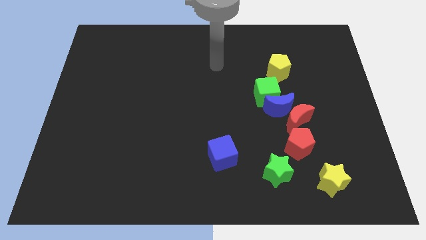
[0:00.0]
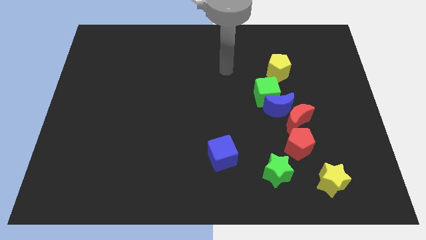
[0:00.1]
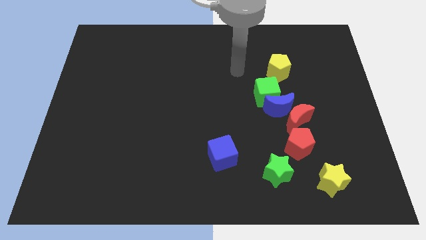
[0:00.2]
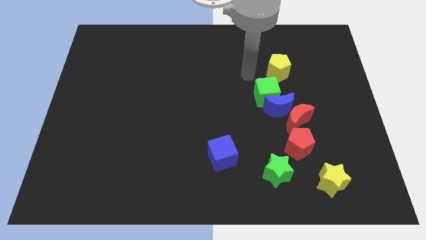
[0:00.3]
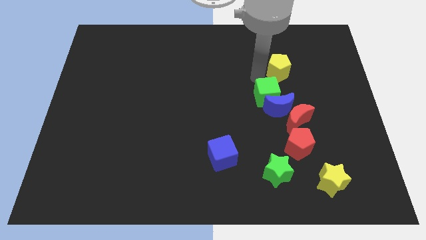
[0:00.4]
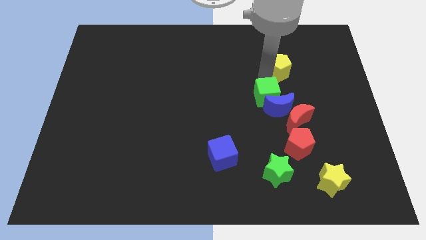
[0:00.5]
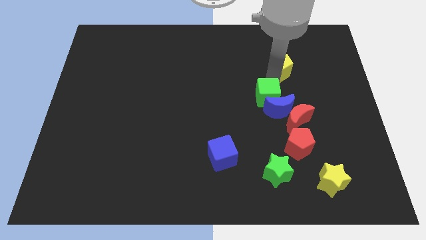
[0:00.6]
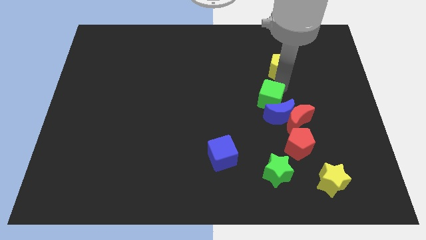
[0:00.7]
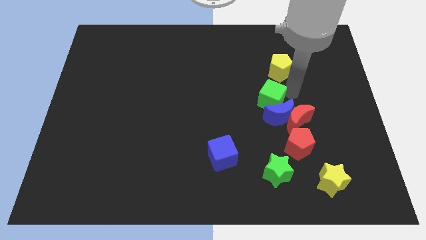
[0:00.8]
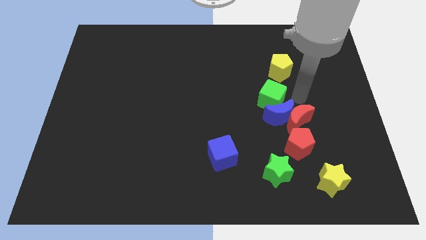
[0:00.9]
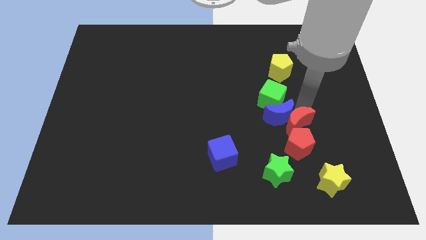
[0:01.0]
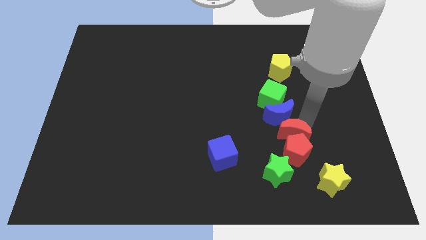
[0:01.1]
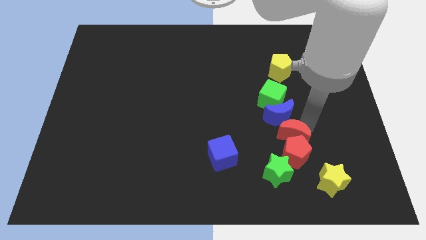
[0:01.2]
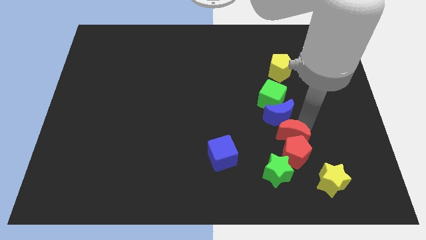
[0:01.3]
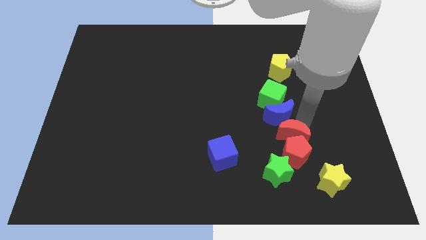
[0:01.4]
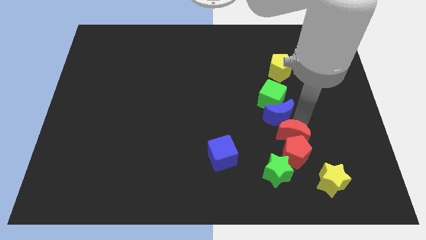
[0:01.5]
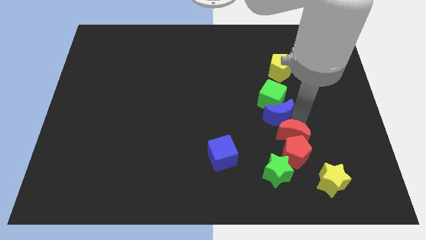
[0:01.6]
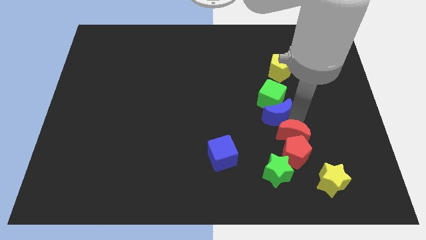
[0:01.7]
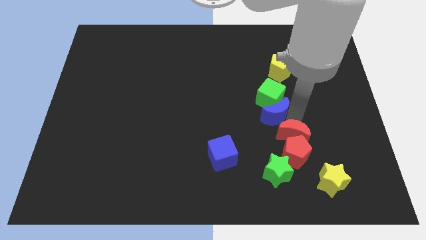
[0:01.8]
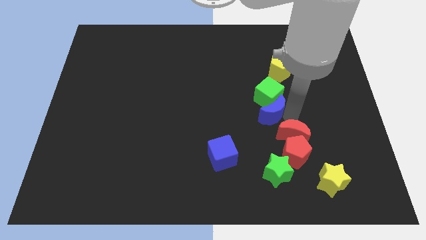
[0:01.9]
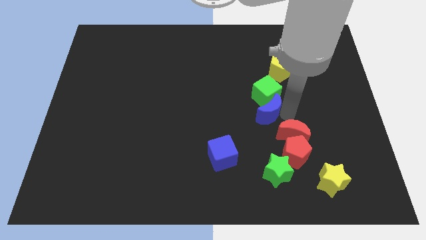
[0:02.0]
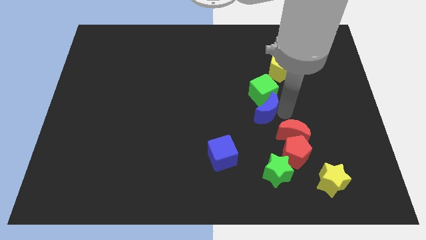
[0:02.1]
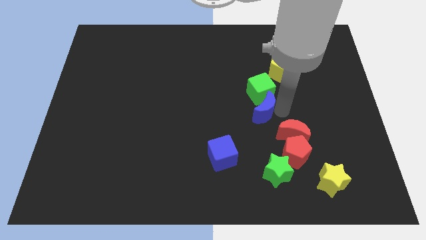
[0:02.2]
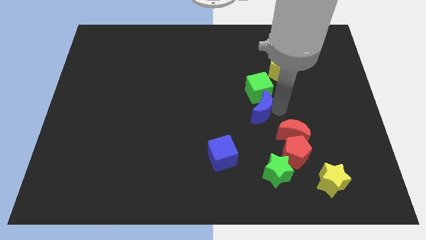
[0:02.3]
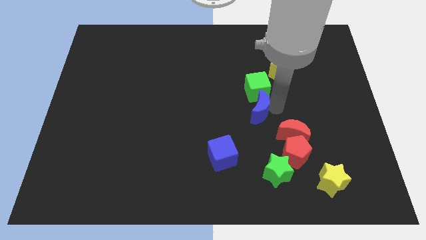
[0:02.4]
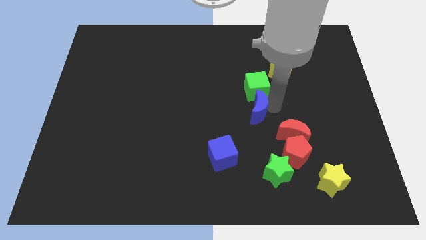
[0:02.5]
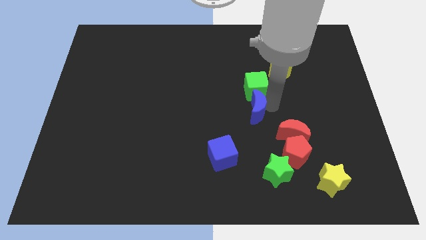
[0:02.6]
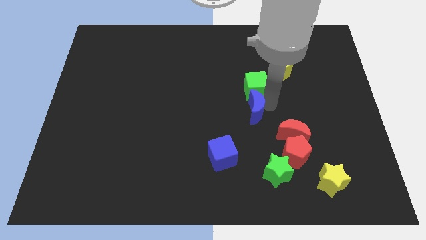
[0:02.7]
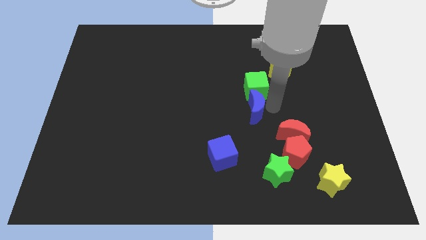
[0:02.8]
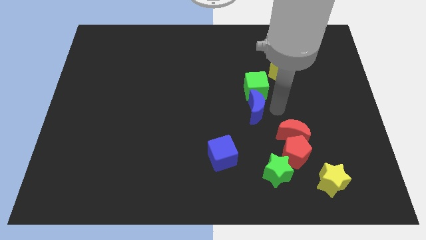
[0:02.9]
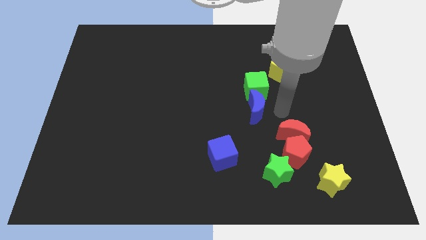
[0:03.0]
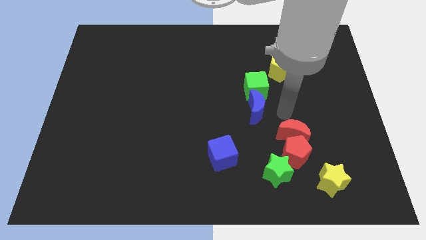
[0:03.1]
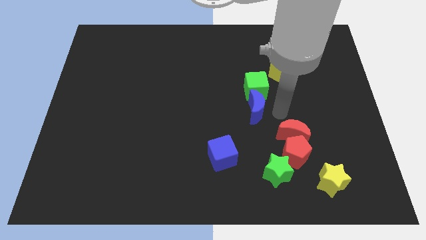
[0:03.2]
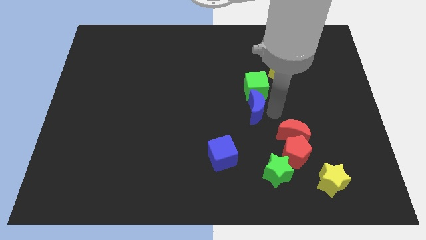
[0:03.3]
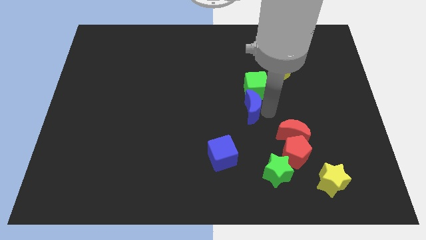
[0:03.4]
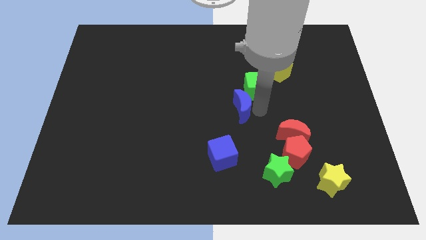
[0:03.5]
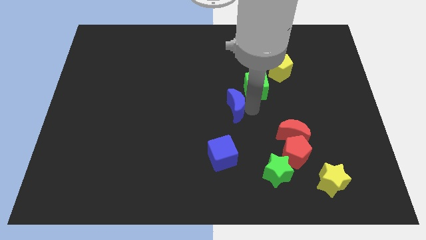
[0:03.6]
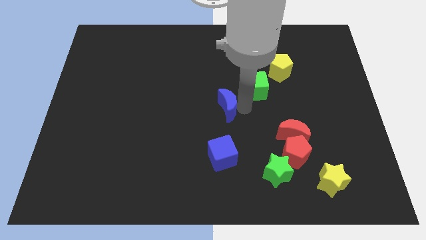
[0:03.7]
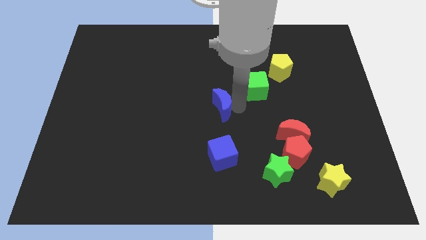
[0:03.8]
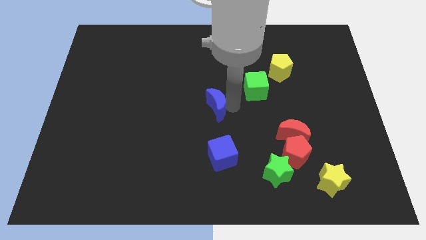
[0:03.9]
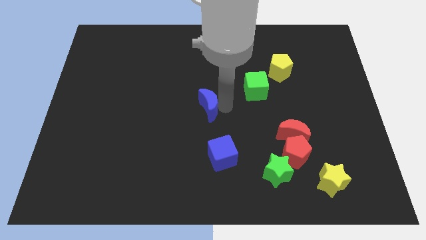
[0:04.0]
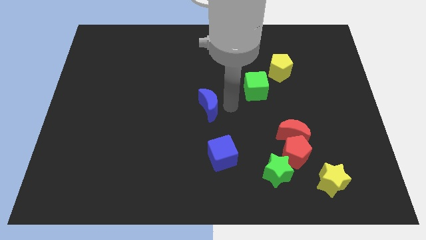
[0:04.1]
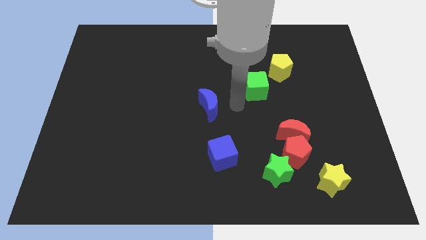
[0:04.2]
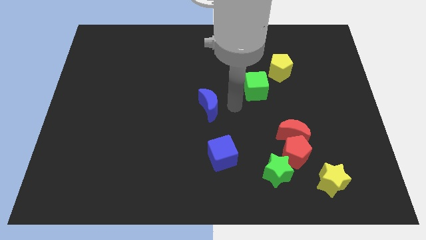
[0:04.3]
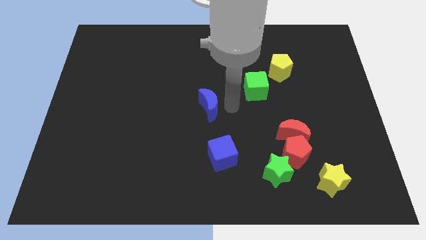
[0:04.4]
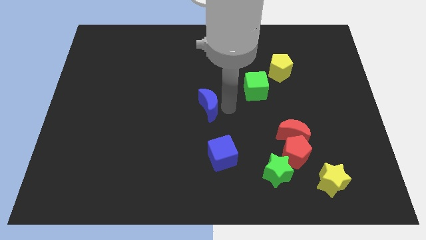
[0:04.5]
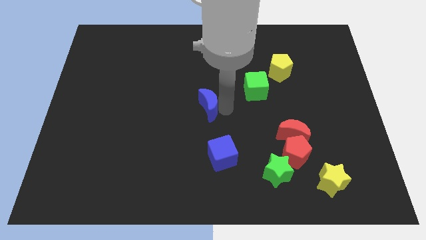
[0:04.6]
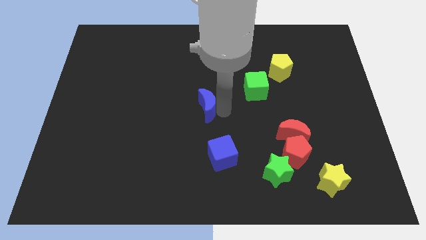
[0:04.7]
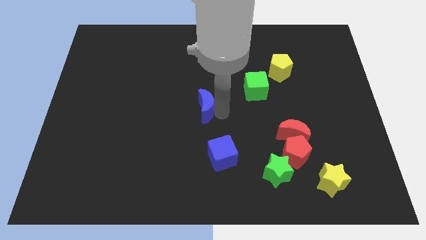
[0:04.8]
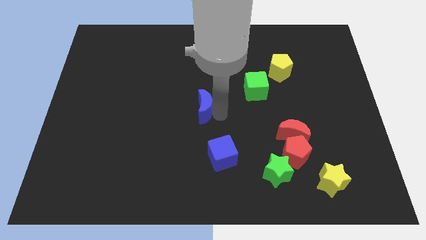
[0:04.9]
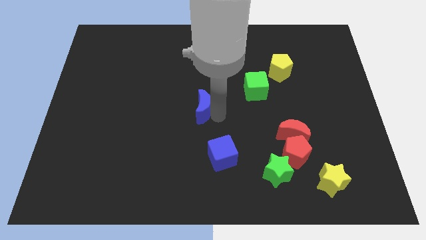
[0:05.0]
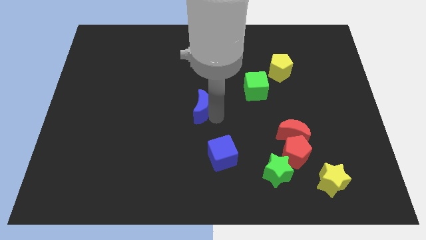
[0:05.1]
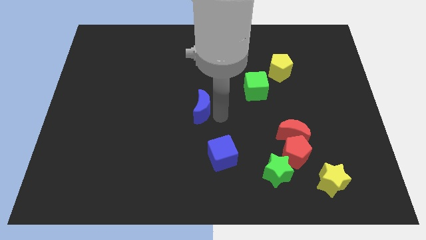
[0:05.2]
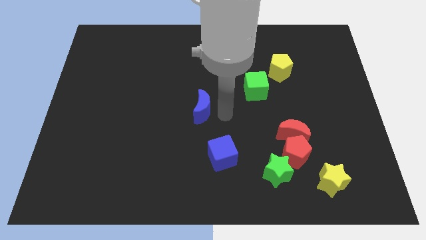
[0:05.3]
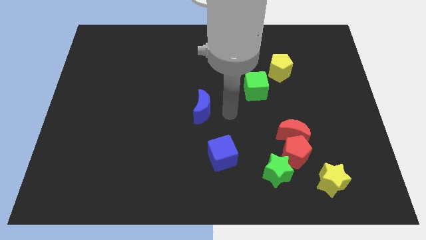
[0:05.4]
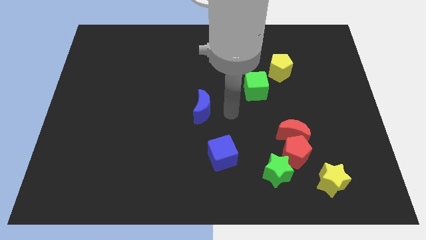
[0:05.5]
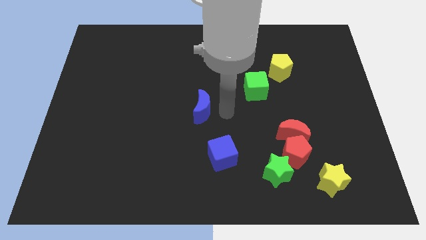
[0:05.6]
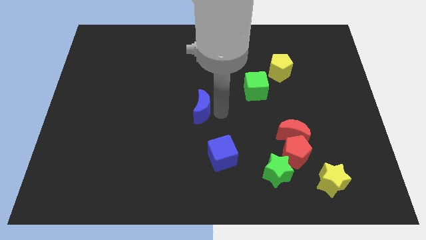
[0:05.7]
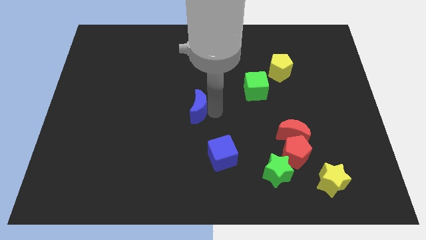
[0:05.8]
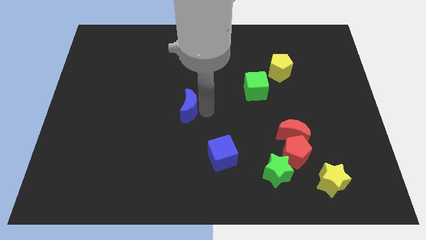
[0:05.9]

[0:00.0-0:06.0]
push the blue moon left

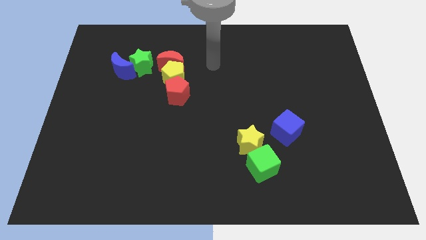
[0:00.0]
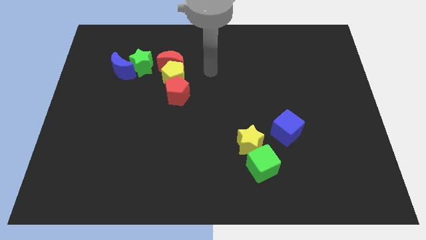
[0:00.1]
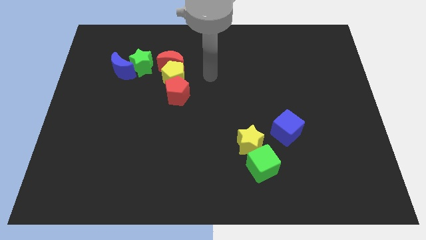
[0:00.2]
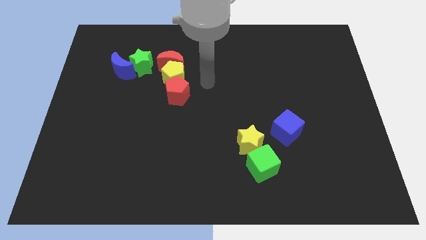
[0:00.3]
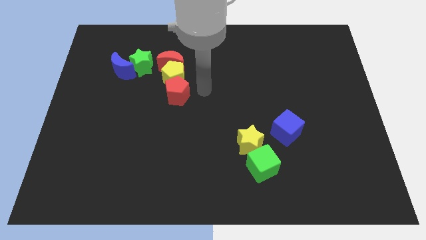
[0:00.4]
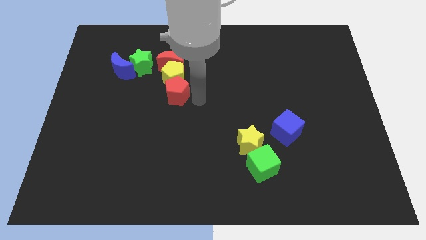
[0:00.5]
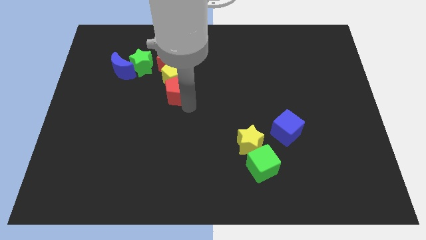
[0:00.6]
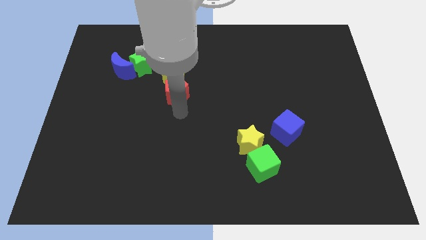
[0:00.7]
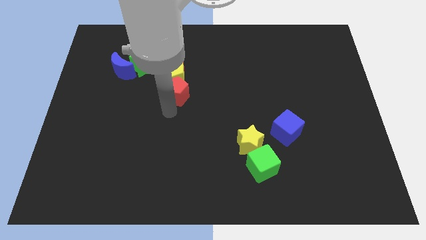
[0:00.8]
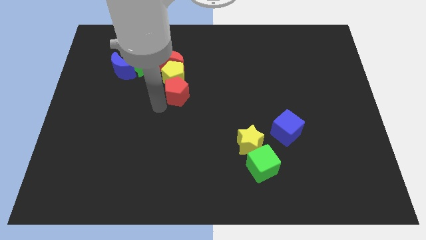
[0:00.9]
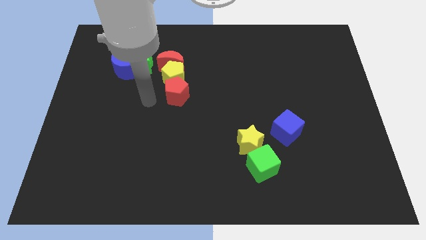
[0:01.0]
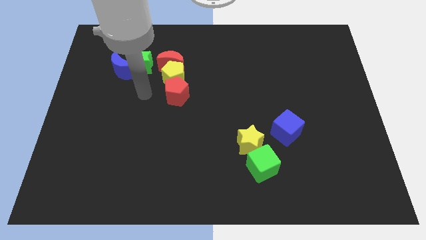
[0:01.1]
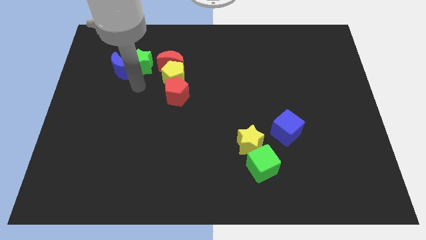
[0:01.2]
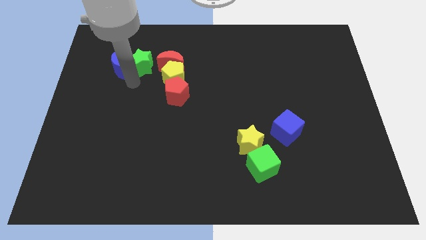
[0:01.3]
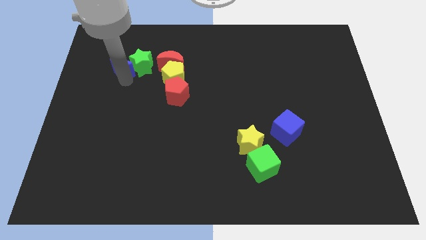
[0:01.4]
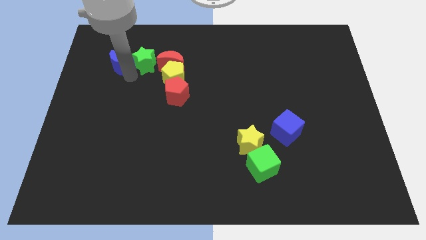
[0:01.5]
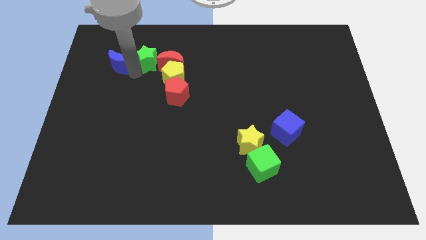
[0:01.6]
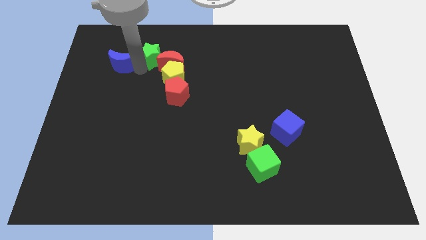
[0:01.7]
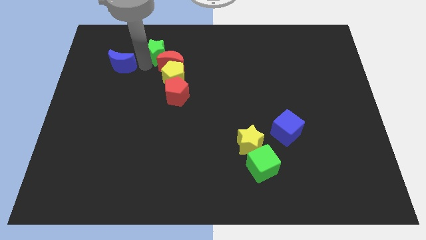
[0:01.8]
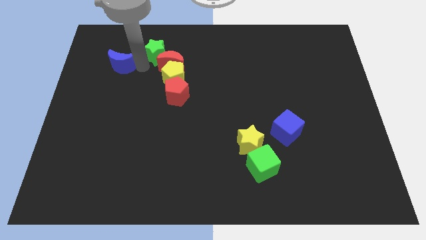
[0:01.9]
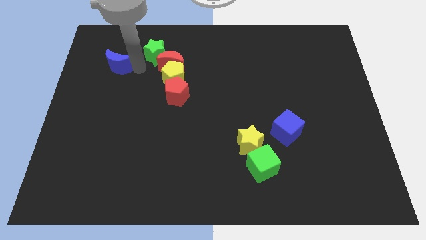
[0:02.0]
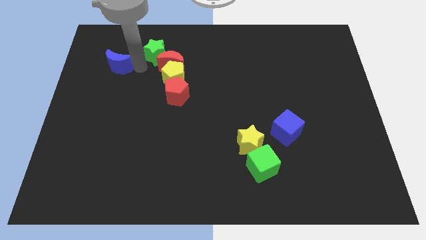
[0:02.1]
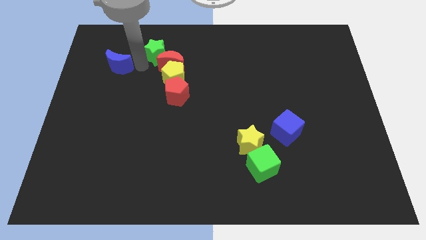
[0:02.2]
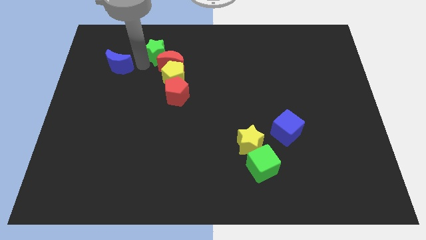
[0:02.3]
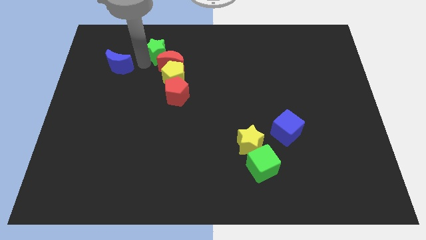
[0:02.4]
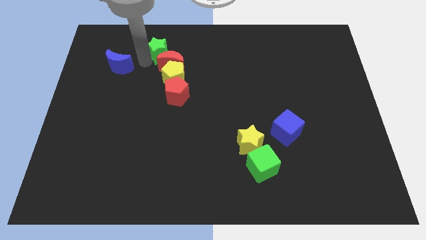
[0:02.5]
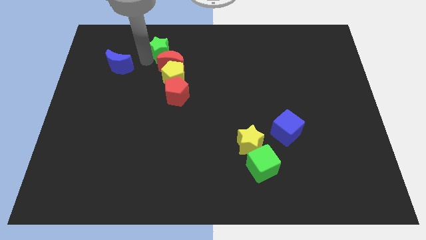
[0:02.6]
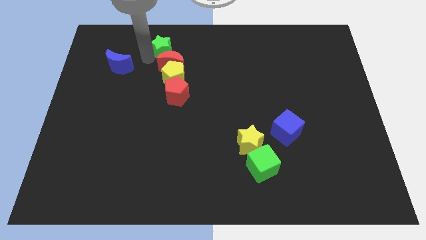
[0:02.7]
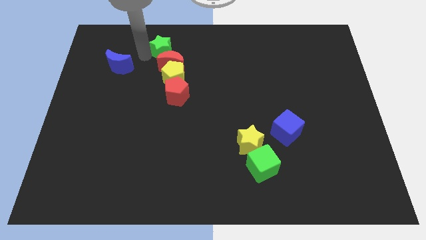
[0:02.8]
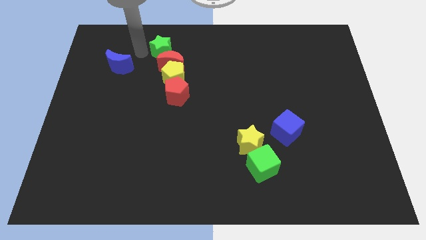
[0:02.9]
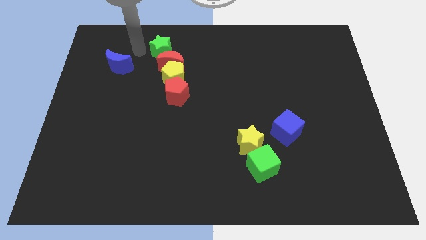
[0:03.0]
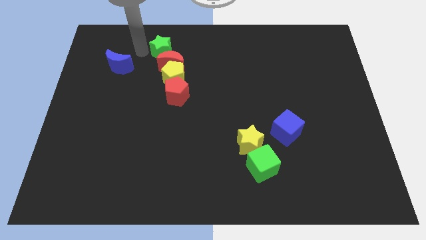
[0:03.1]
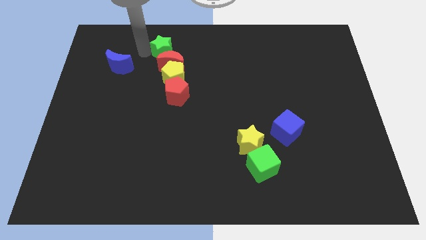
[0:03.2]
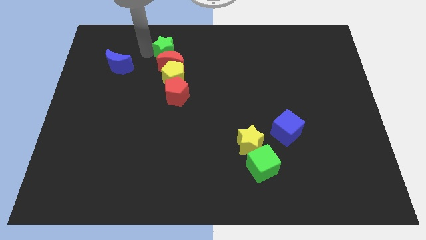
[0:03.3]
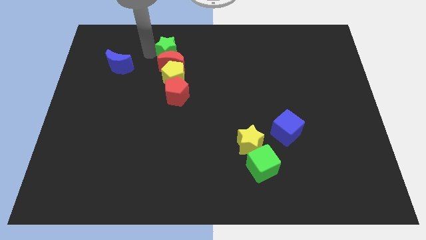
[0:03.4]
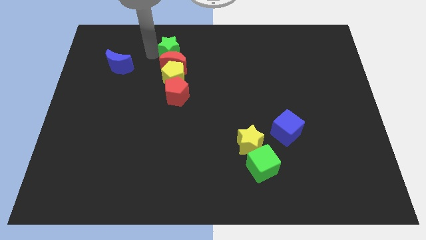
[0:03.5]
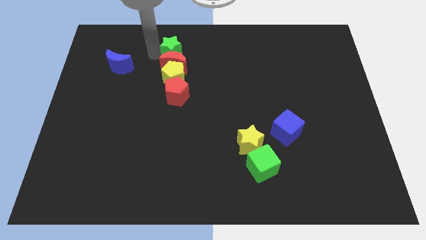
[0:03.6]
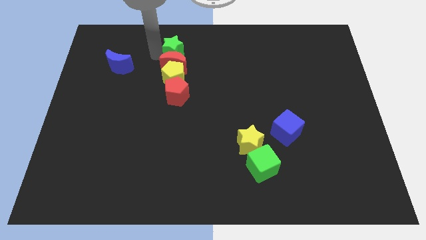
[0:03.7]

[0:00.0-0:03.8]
slide the green star slightly right
